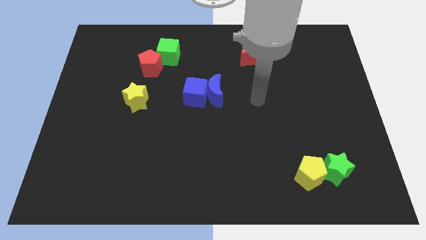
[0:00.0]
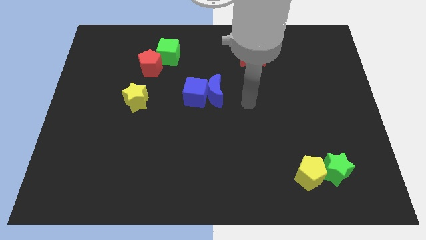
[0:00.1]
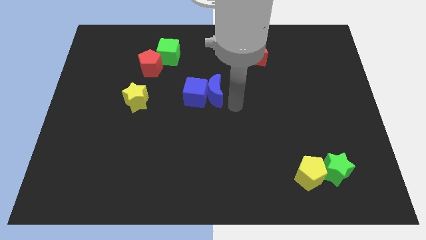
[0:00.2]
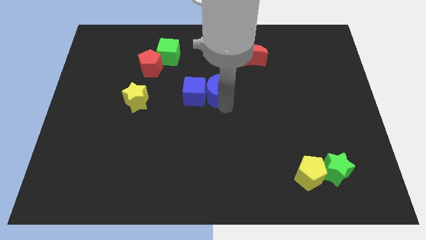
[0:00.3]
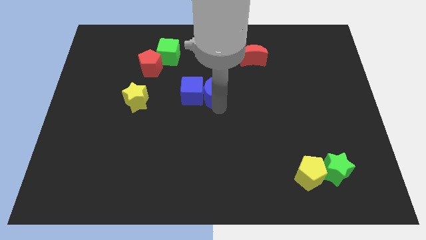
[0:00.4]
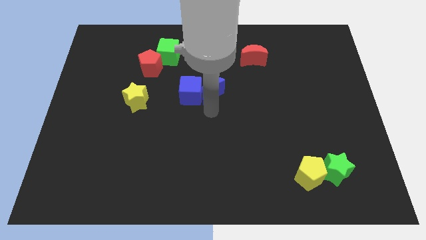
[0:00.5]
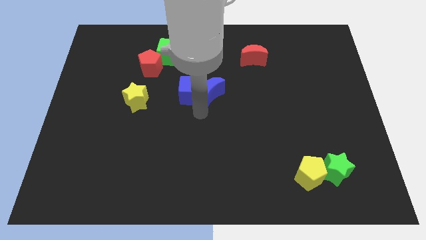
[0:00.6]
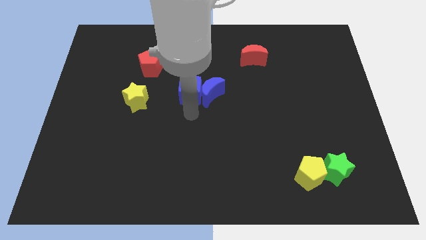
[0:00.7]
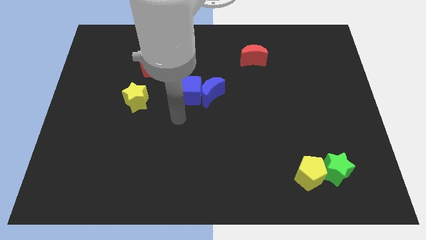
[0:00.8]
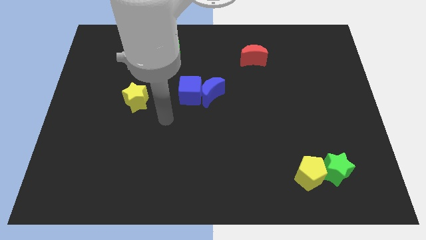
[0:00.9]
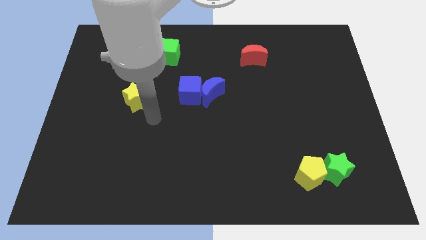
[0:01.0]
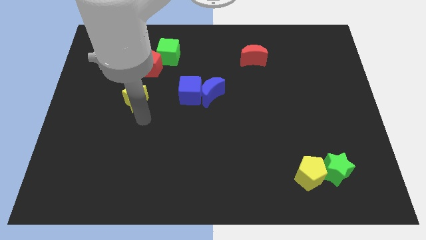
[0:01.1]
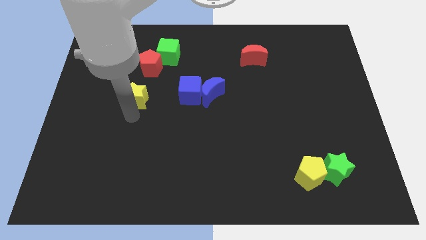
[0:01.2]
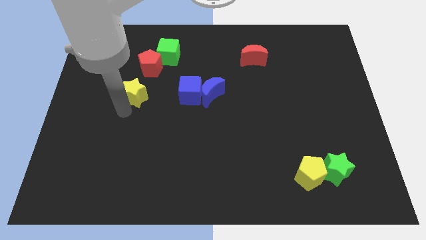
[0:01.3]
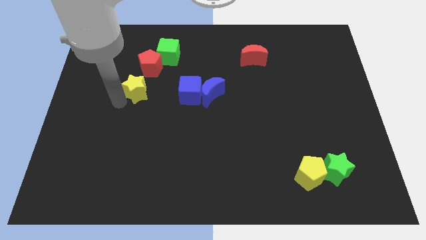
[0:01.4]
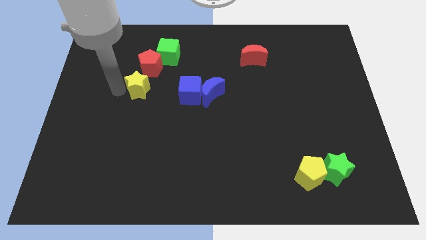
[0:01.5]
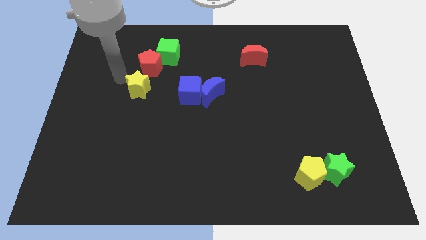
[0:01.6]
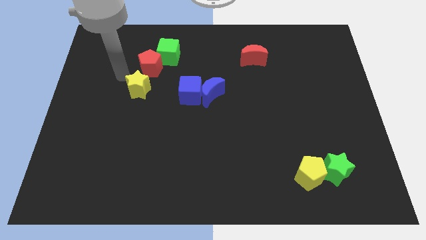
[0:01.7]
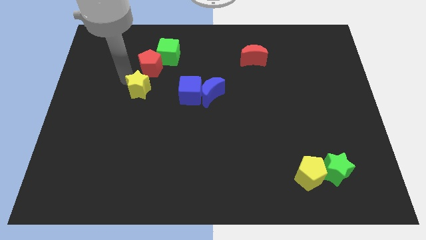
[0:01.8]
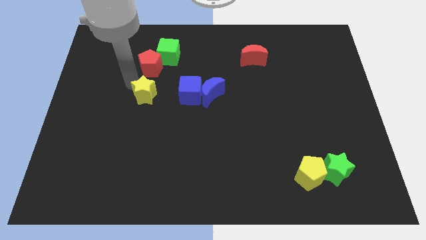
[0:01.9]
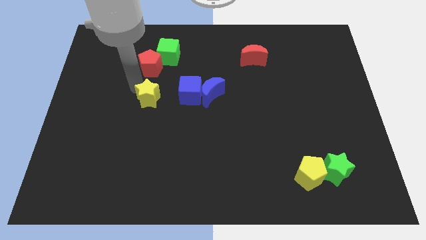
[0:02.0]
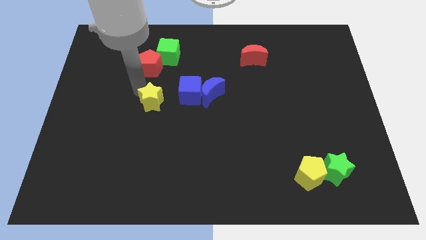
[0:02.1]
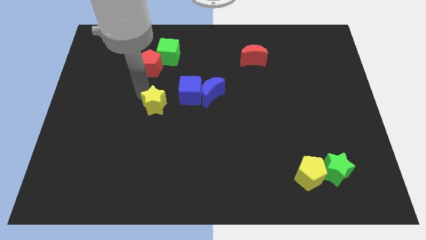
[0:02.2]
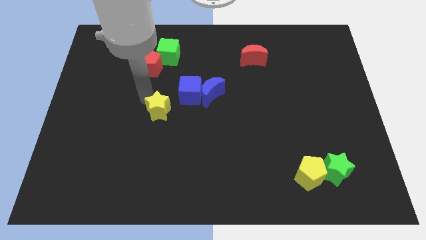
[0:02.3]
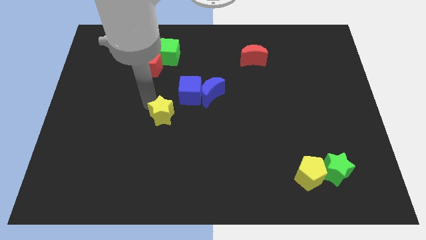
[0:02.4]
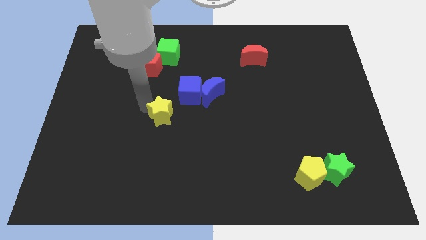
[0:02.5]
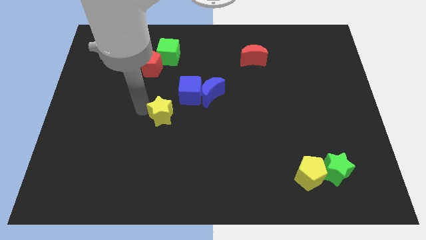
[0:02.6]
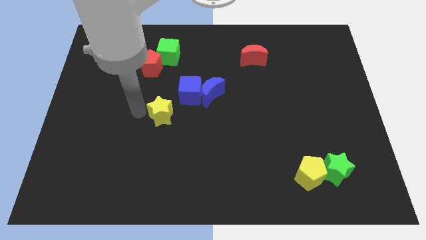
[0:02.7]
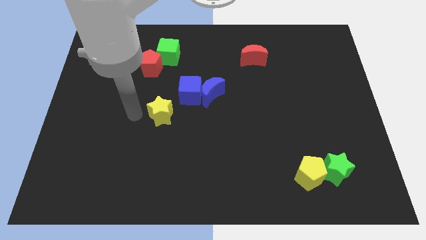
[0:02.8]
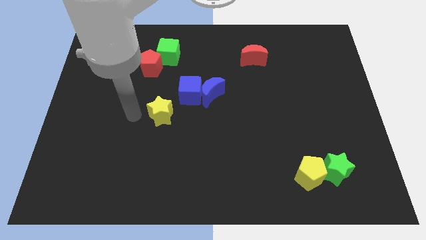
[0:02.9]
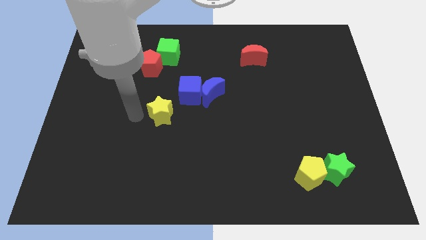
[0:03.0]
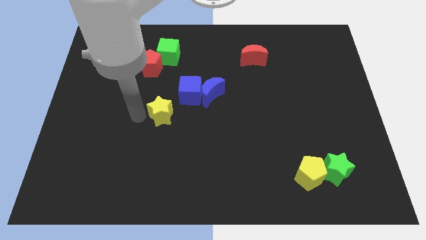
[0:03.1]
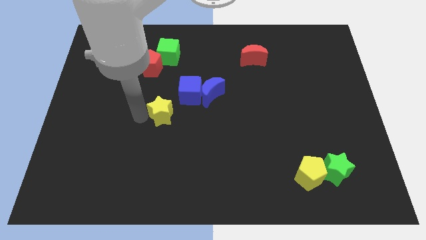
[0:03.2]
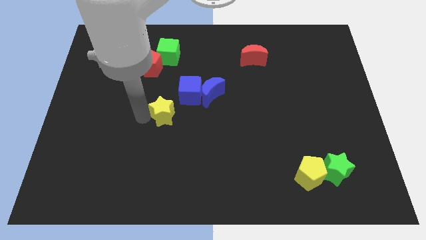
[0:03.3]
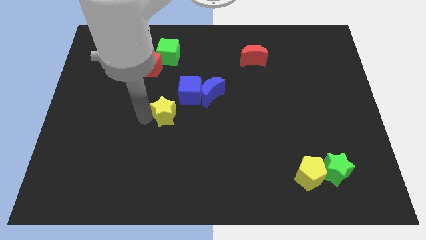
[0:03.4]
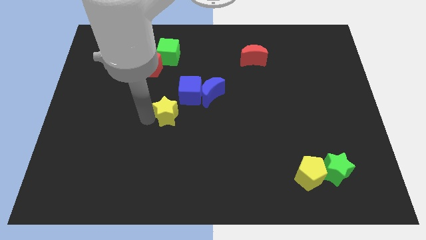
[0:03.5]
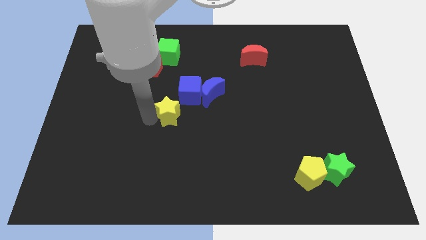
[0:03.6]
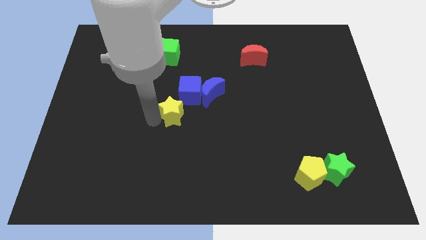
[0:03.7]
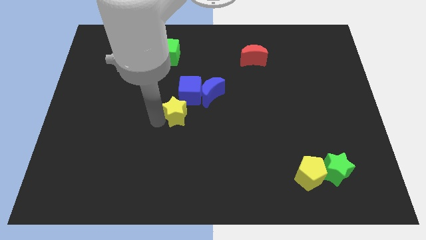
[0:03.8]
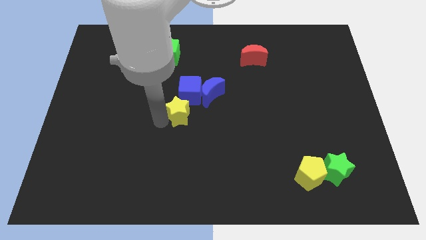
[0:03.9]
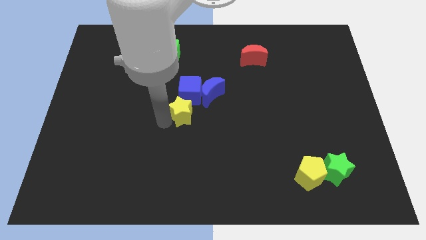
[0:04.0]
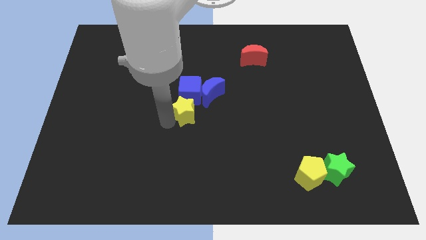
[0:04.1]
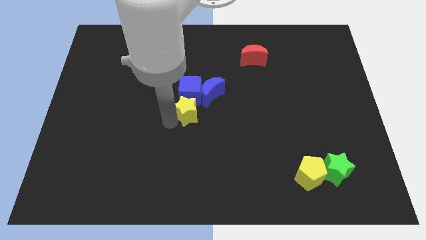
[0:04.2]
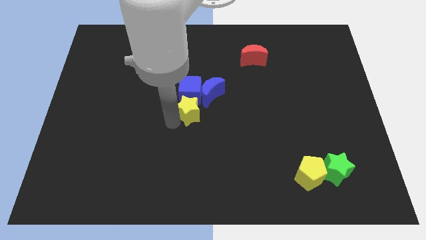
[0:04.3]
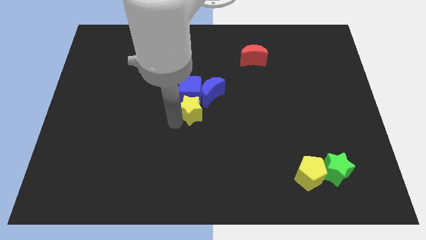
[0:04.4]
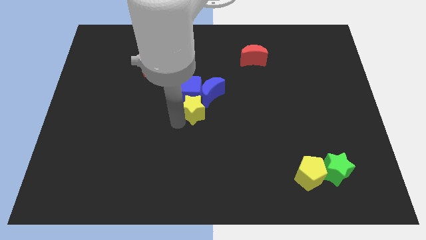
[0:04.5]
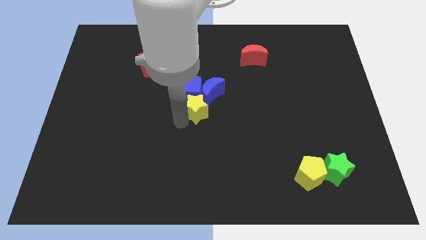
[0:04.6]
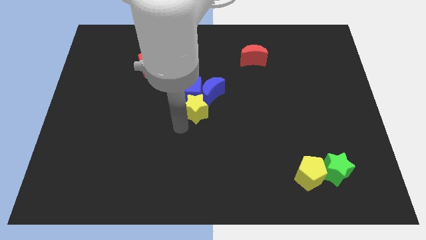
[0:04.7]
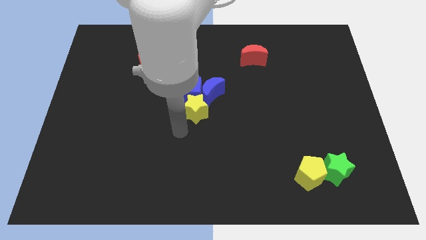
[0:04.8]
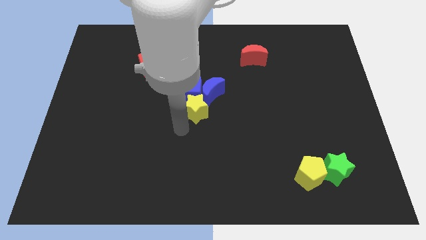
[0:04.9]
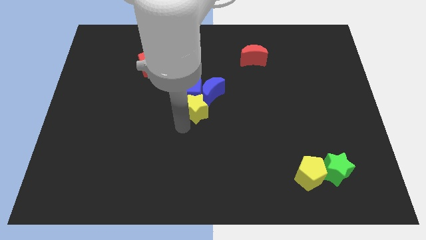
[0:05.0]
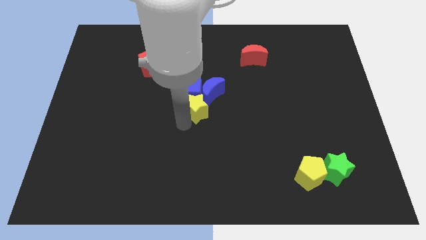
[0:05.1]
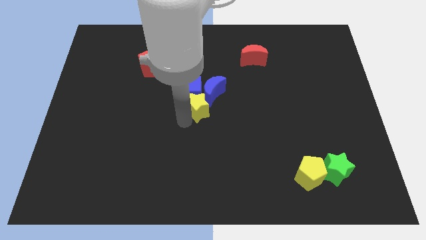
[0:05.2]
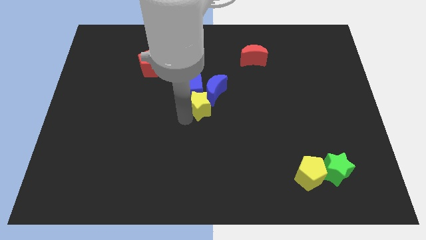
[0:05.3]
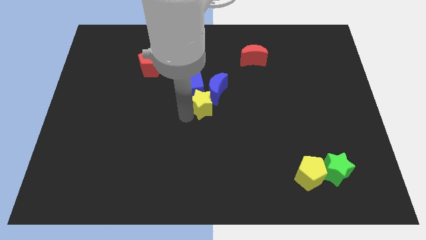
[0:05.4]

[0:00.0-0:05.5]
move the yellow star towards the blue moon
